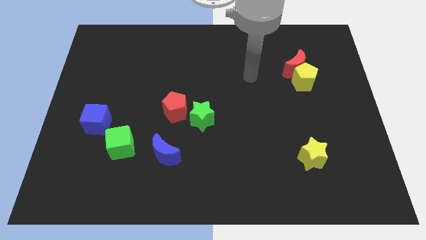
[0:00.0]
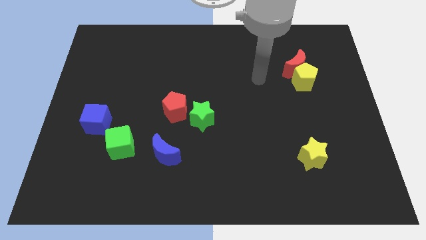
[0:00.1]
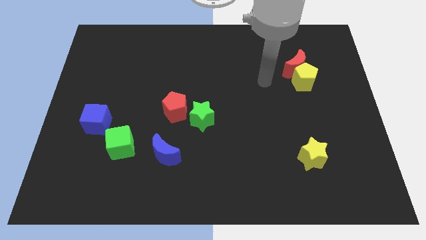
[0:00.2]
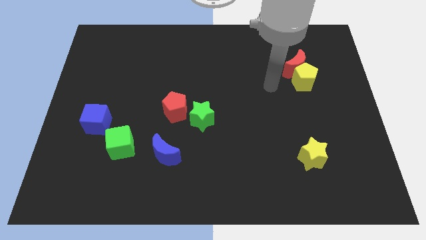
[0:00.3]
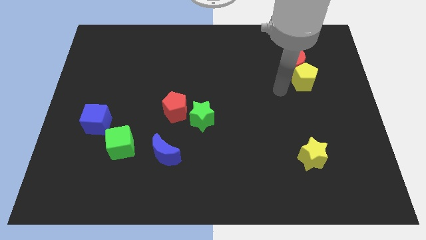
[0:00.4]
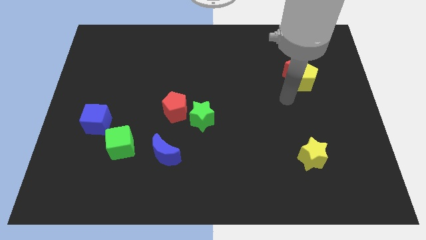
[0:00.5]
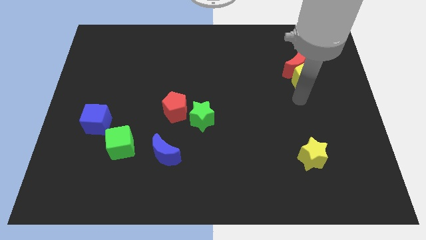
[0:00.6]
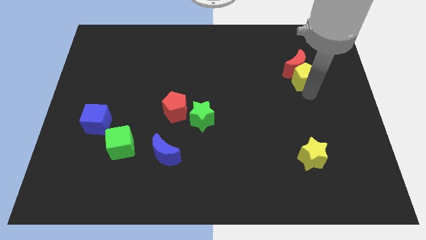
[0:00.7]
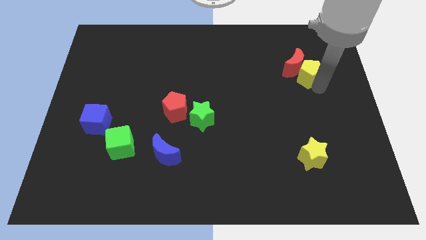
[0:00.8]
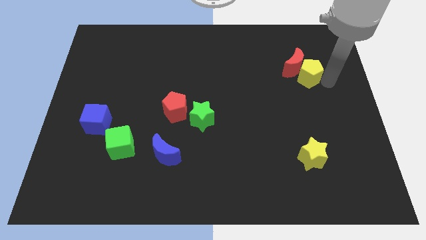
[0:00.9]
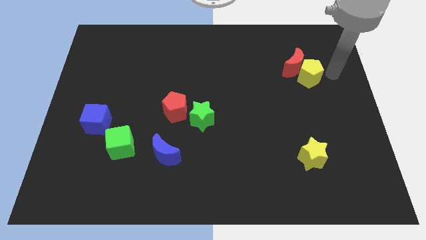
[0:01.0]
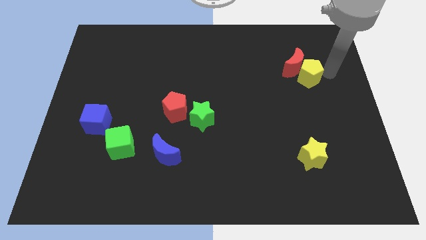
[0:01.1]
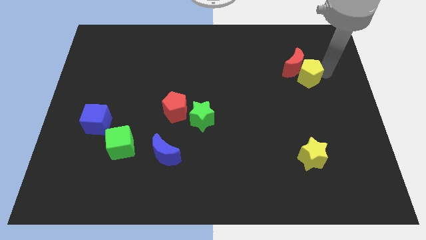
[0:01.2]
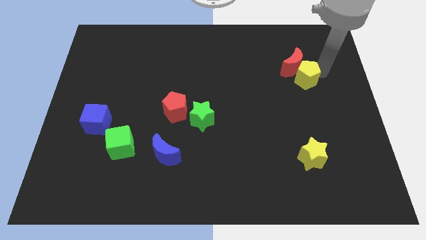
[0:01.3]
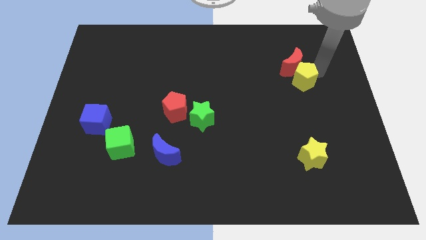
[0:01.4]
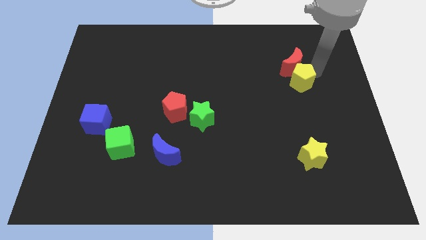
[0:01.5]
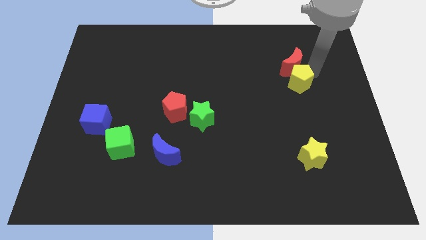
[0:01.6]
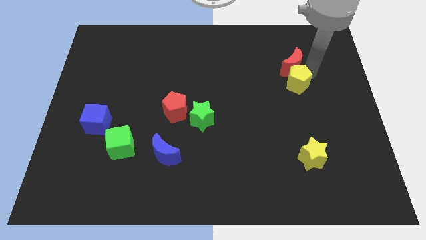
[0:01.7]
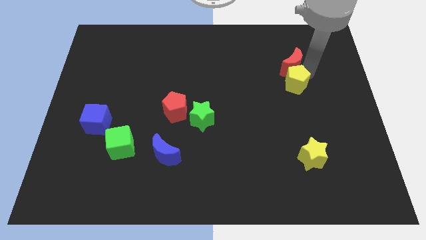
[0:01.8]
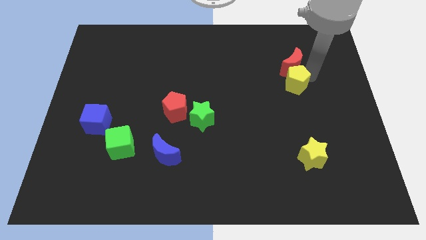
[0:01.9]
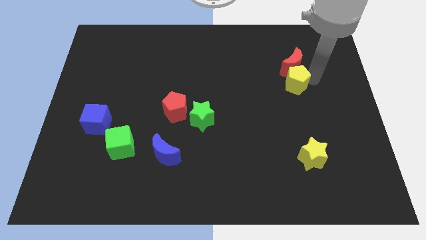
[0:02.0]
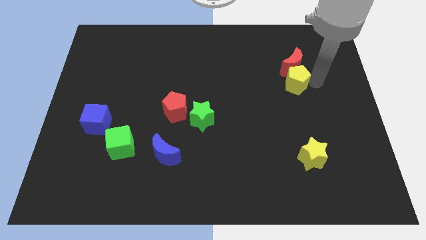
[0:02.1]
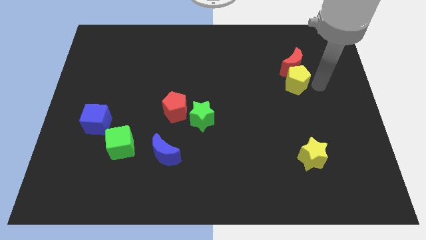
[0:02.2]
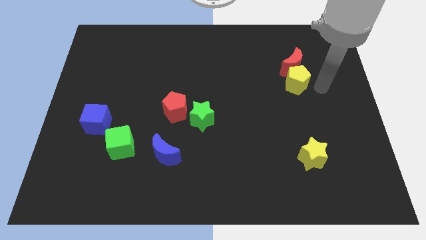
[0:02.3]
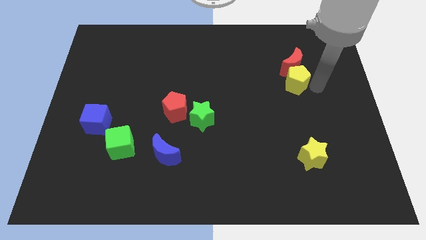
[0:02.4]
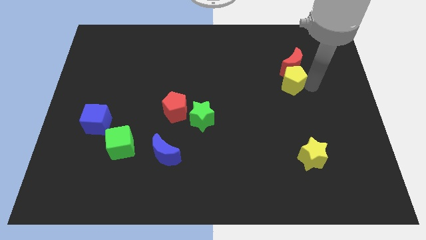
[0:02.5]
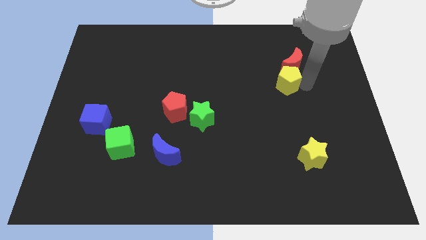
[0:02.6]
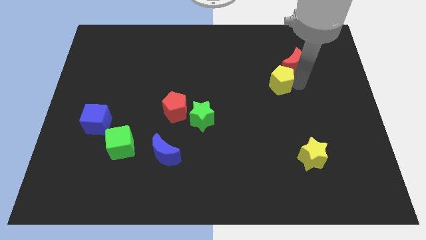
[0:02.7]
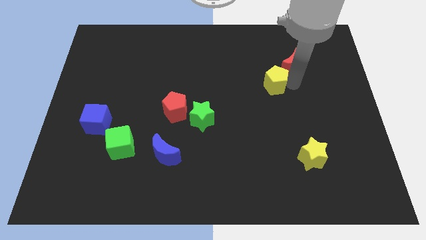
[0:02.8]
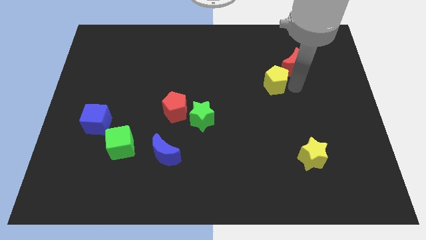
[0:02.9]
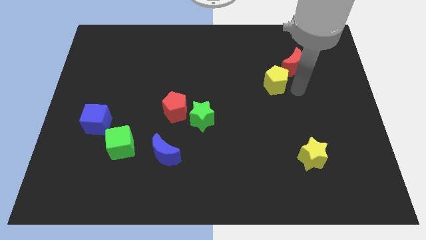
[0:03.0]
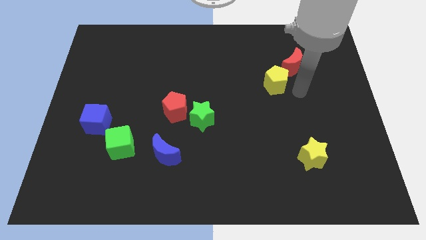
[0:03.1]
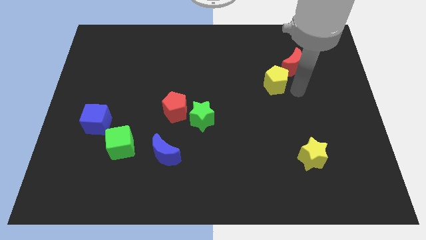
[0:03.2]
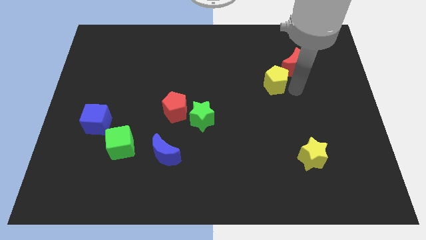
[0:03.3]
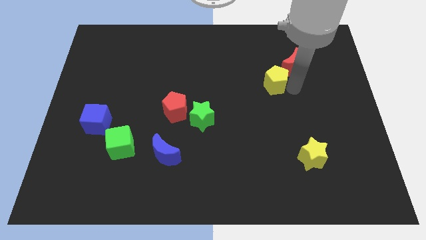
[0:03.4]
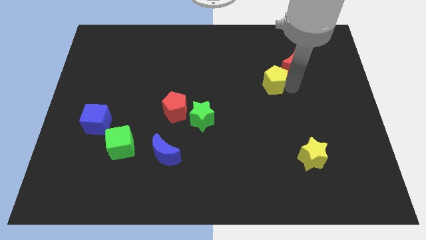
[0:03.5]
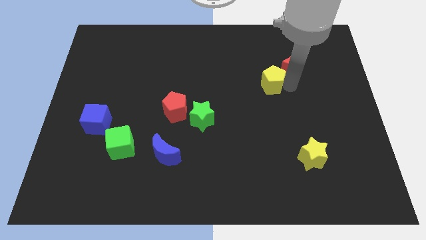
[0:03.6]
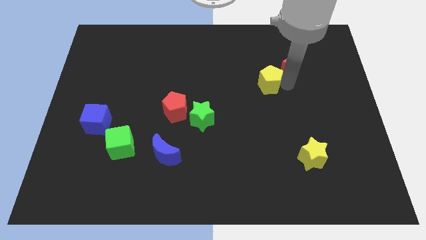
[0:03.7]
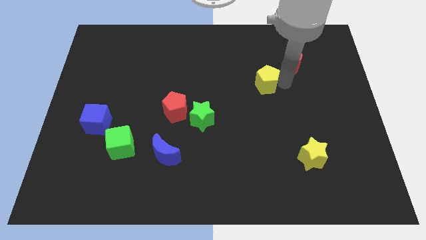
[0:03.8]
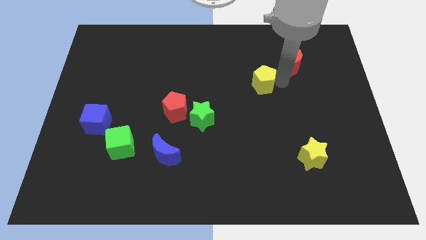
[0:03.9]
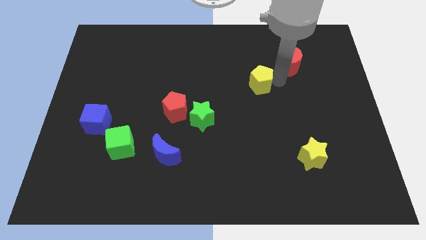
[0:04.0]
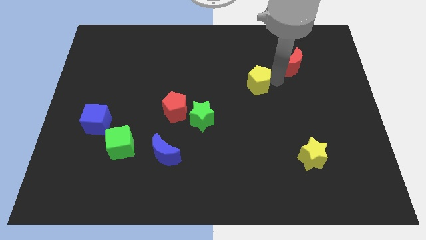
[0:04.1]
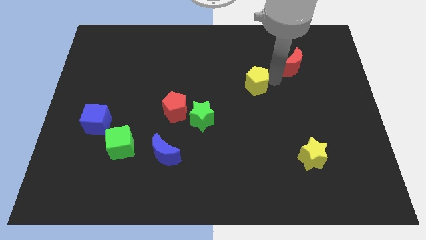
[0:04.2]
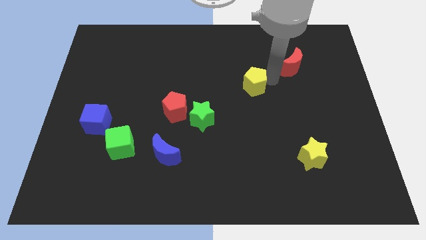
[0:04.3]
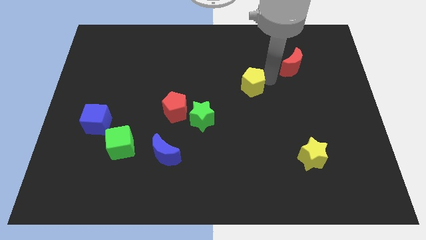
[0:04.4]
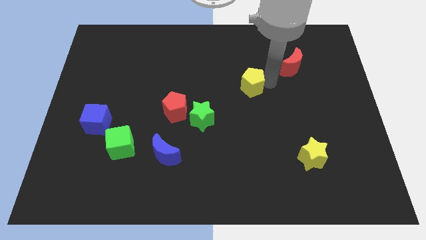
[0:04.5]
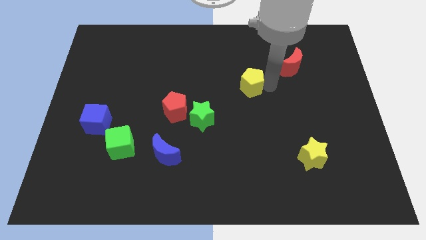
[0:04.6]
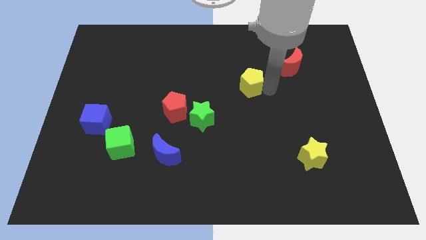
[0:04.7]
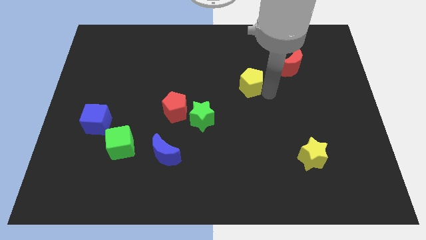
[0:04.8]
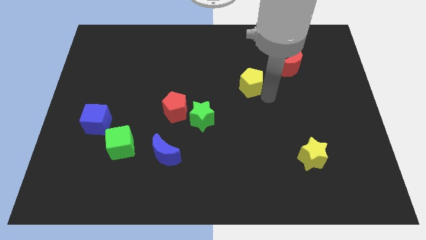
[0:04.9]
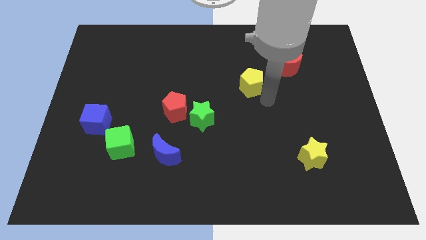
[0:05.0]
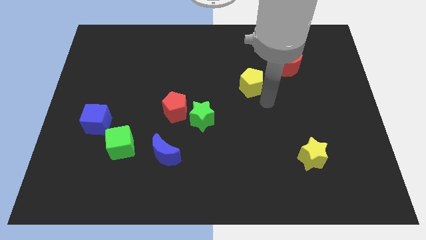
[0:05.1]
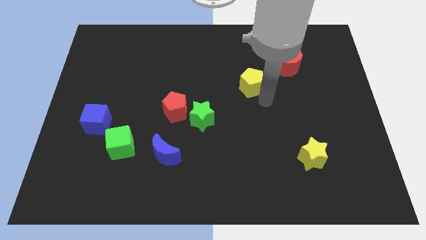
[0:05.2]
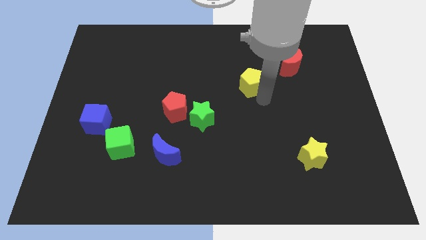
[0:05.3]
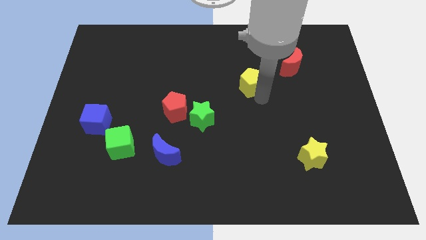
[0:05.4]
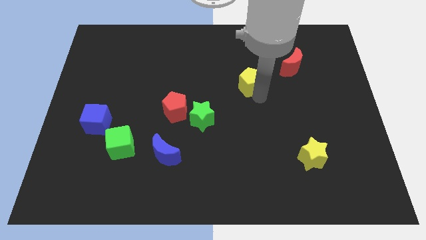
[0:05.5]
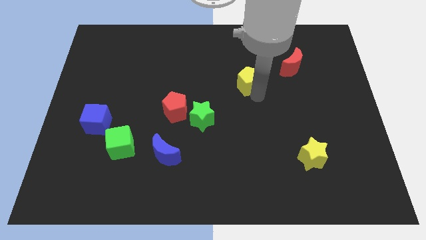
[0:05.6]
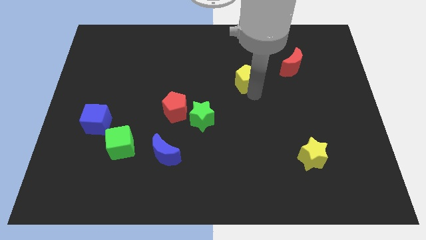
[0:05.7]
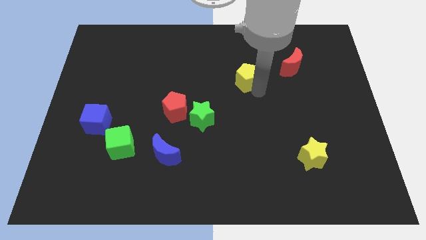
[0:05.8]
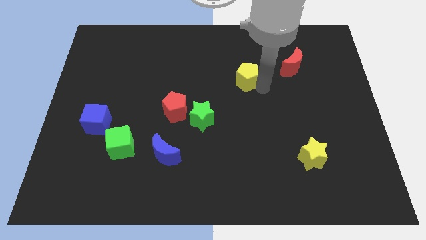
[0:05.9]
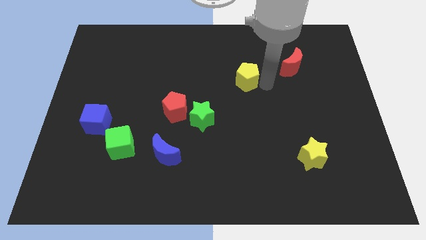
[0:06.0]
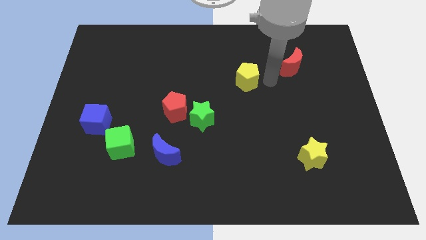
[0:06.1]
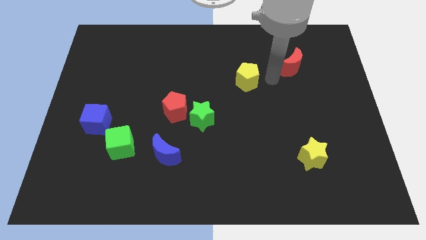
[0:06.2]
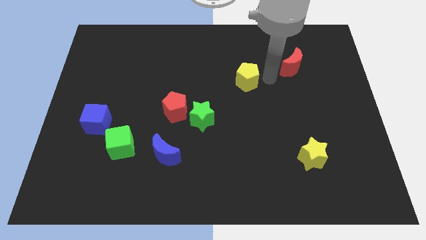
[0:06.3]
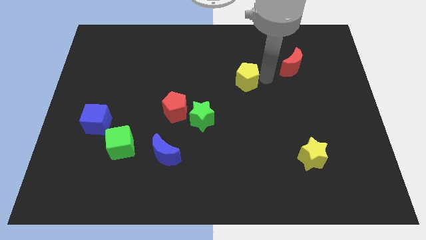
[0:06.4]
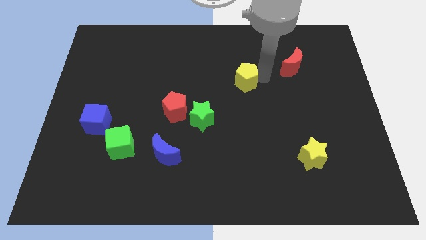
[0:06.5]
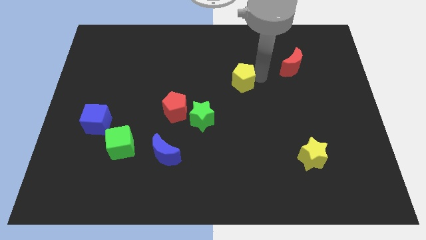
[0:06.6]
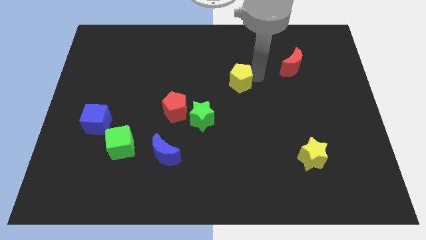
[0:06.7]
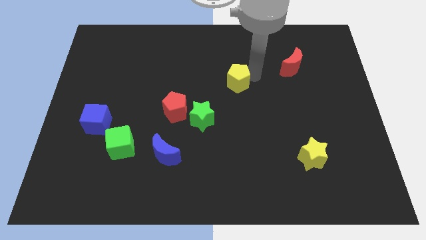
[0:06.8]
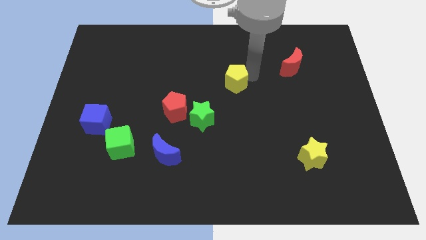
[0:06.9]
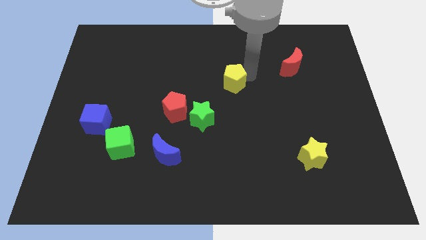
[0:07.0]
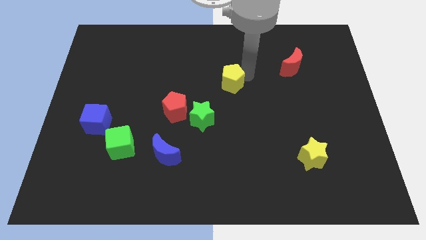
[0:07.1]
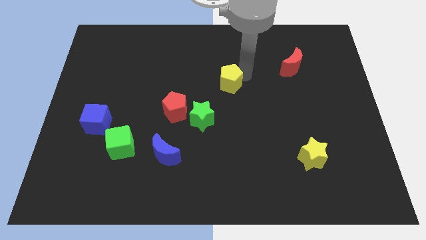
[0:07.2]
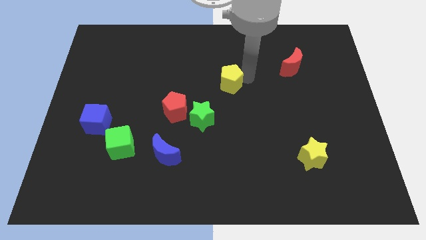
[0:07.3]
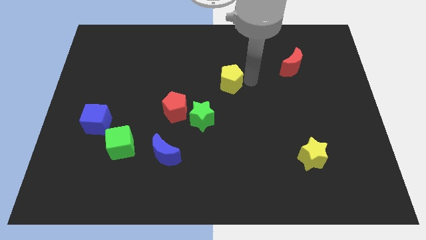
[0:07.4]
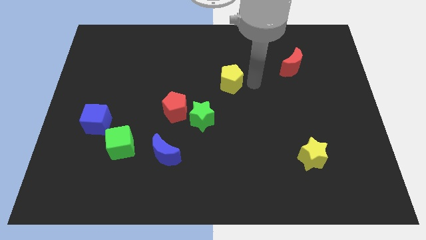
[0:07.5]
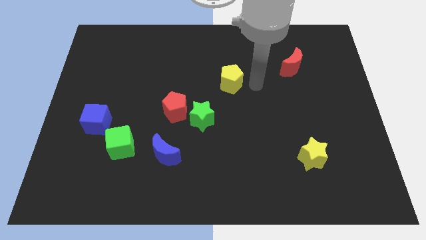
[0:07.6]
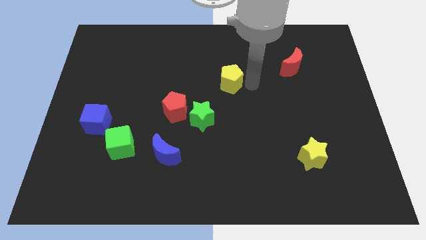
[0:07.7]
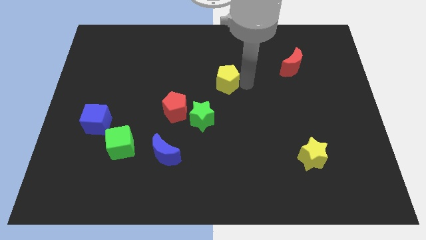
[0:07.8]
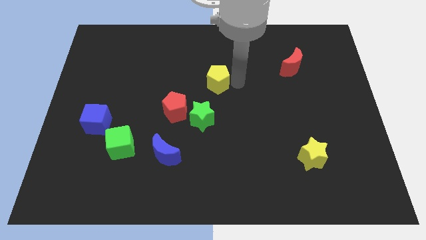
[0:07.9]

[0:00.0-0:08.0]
push the yellow pentagon to the left
